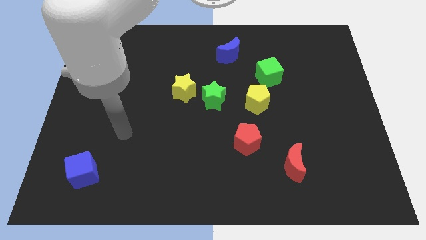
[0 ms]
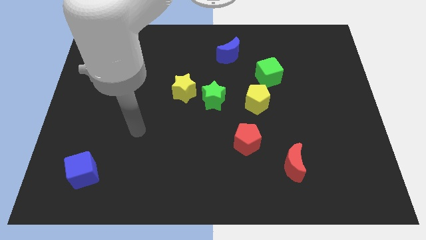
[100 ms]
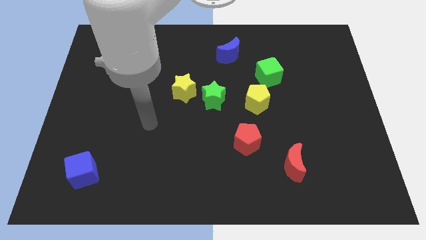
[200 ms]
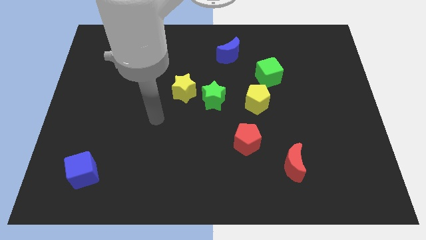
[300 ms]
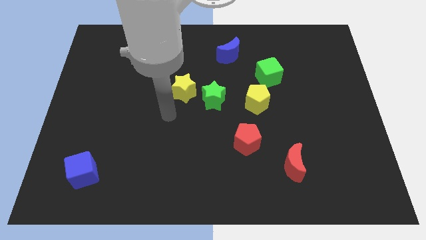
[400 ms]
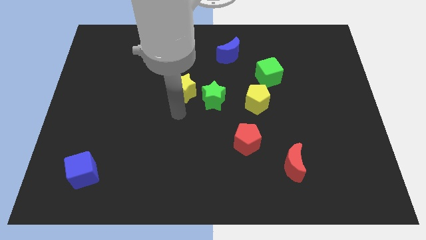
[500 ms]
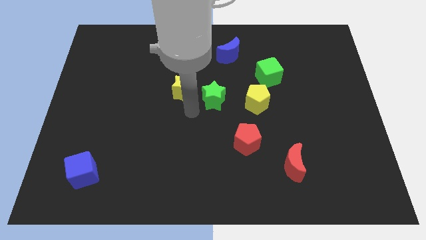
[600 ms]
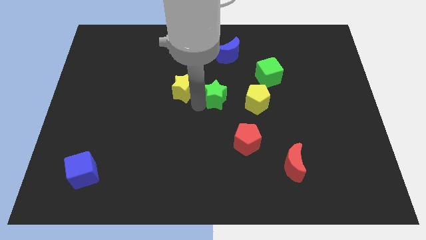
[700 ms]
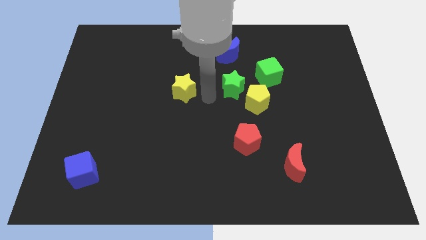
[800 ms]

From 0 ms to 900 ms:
separate the yellow star from the green star

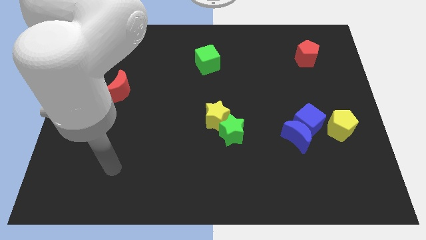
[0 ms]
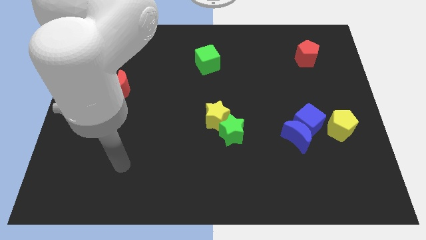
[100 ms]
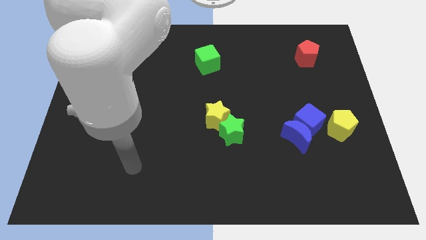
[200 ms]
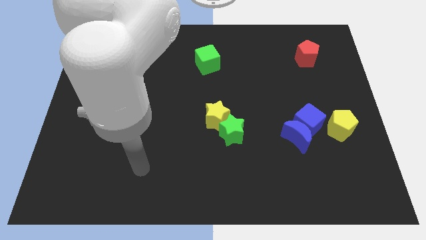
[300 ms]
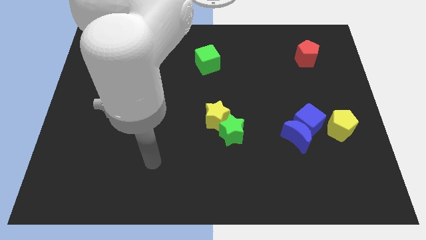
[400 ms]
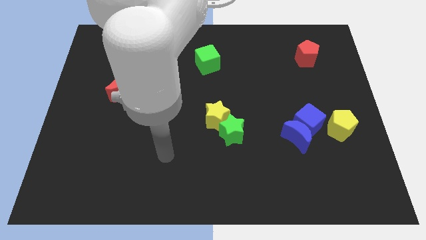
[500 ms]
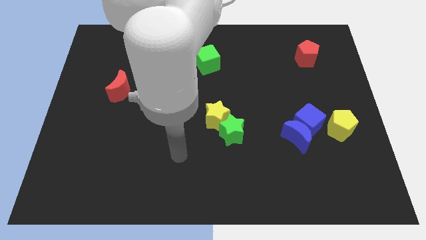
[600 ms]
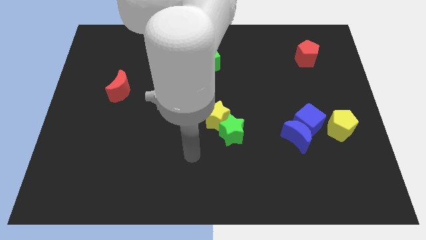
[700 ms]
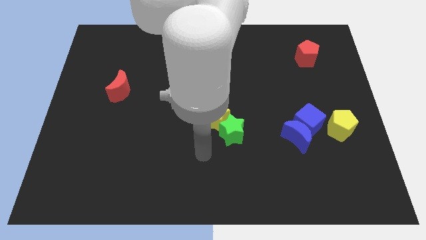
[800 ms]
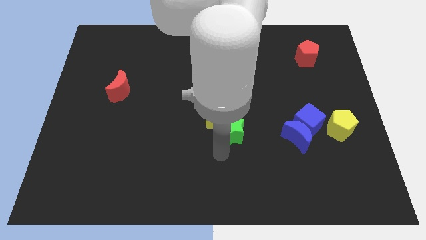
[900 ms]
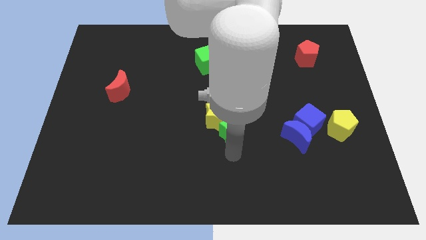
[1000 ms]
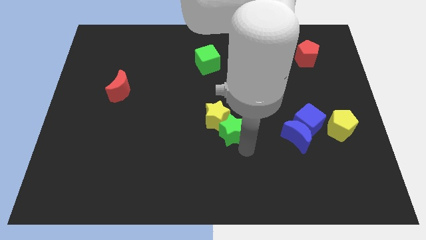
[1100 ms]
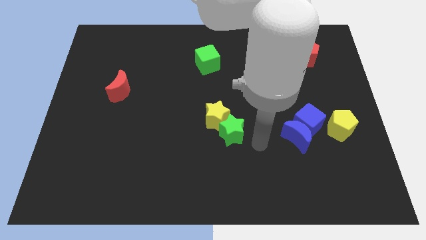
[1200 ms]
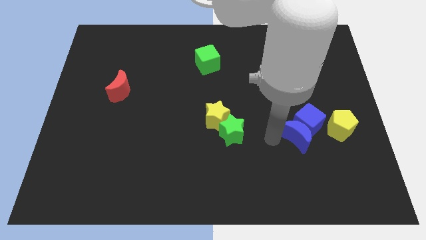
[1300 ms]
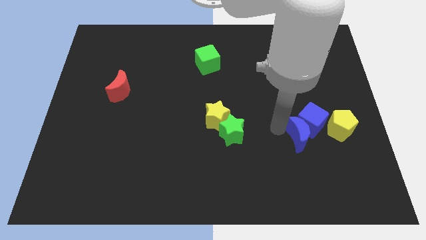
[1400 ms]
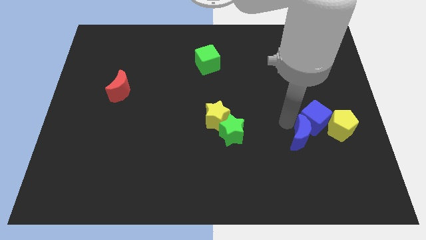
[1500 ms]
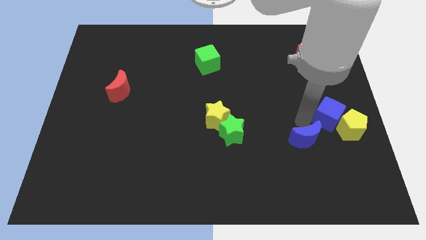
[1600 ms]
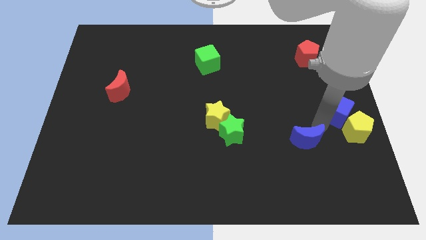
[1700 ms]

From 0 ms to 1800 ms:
separate the blue moon from the blue cube

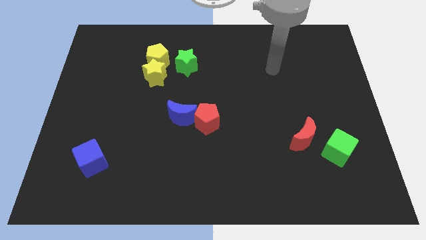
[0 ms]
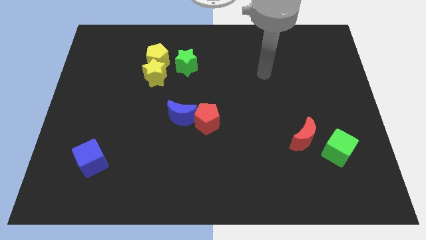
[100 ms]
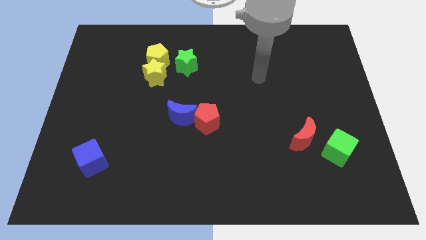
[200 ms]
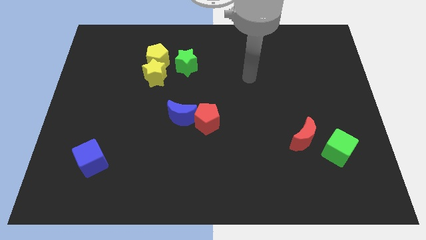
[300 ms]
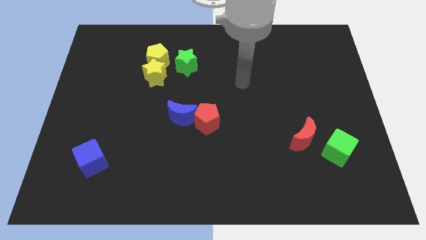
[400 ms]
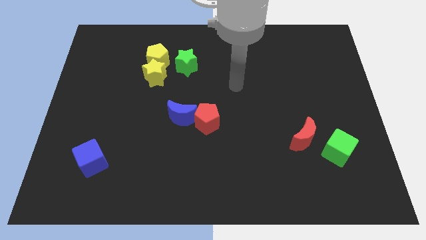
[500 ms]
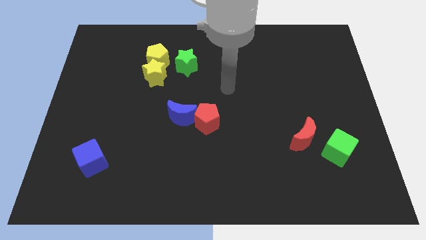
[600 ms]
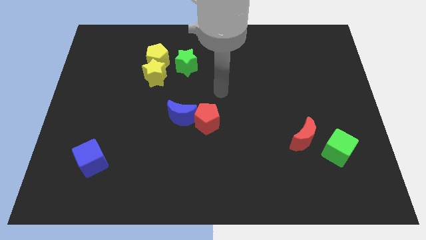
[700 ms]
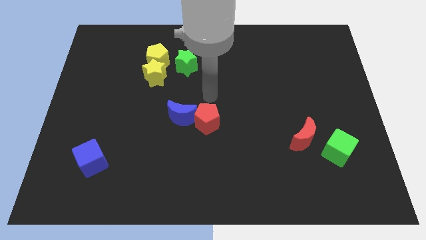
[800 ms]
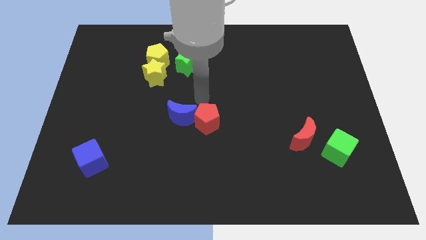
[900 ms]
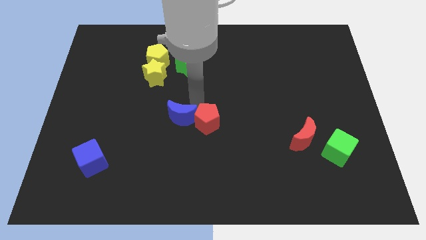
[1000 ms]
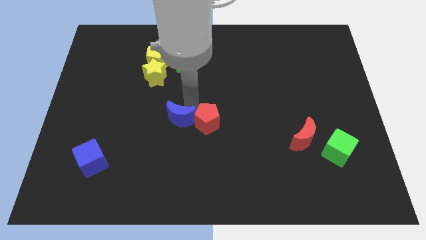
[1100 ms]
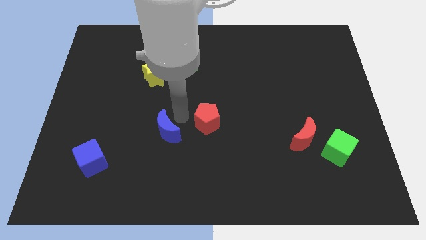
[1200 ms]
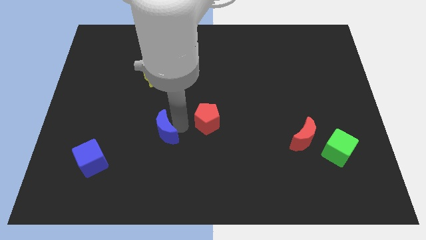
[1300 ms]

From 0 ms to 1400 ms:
pull the red pentagon apart from the blue moon

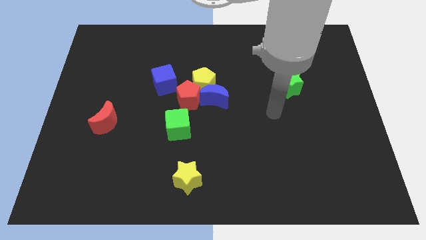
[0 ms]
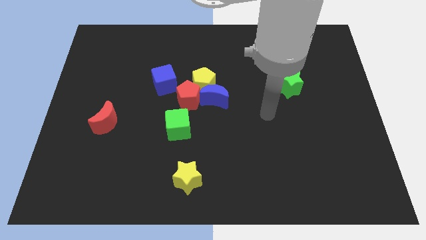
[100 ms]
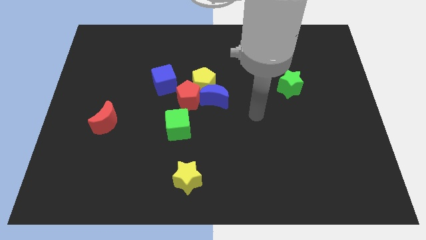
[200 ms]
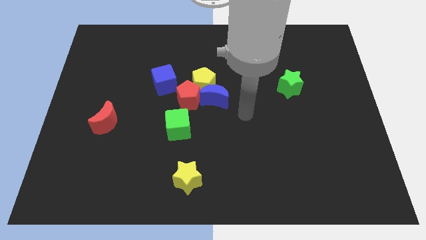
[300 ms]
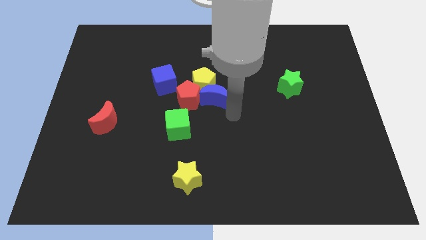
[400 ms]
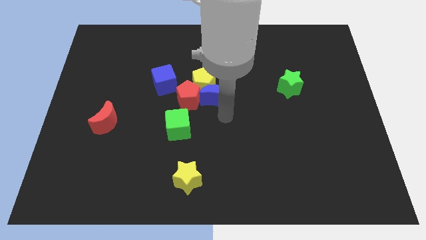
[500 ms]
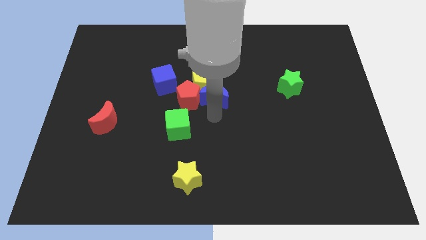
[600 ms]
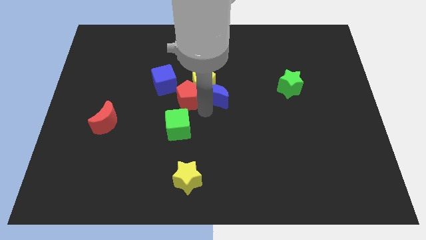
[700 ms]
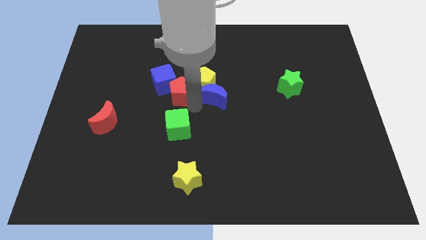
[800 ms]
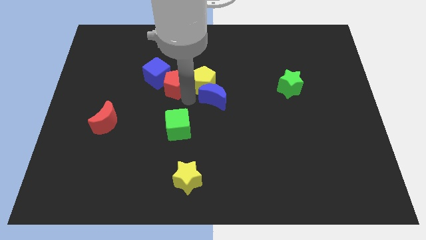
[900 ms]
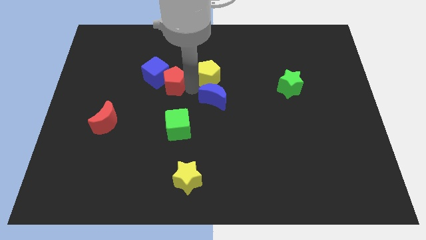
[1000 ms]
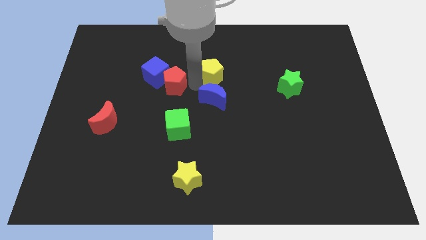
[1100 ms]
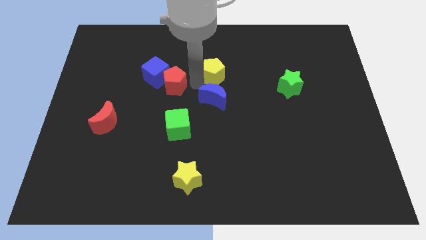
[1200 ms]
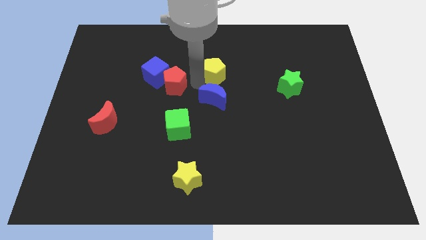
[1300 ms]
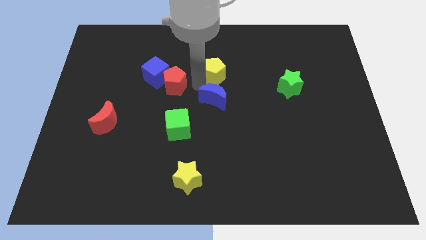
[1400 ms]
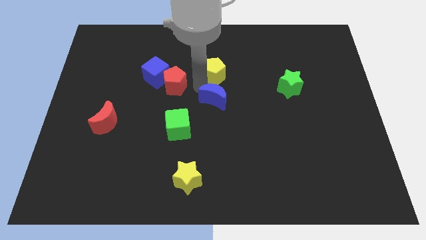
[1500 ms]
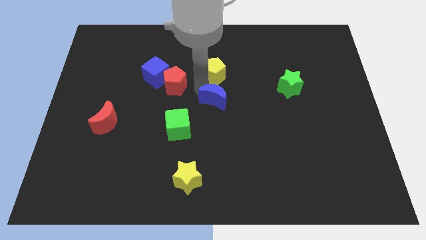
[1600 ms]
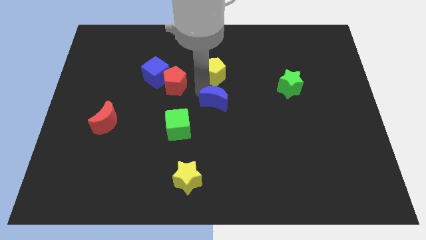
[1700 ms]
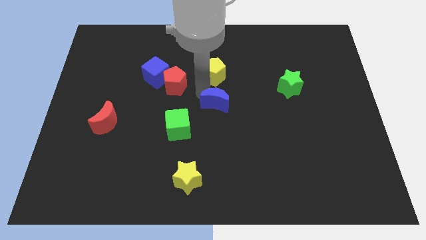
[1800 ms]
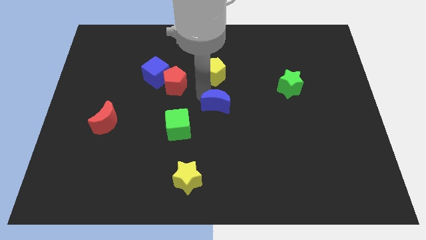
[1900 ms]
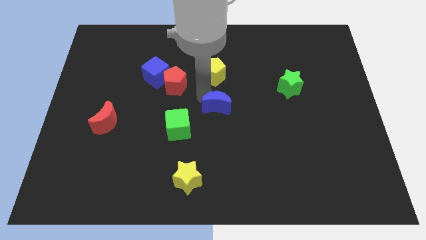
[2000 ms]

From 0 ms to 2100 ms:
move the blue moon away from the yellow pentagon and red pentagon

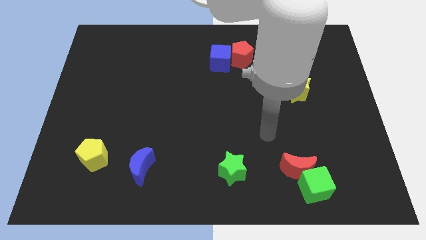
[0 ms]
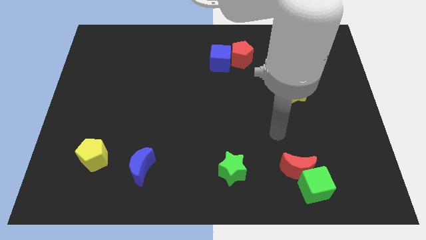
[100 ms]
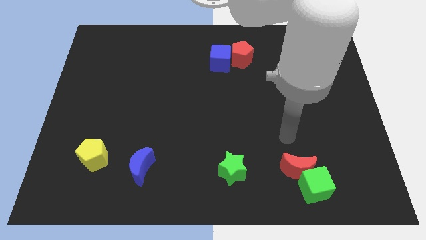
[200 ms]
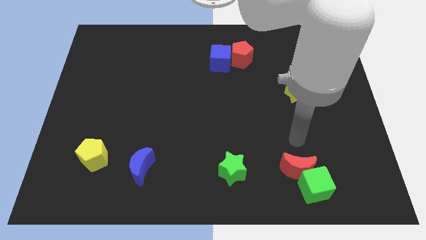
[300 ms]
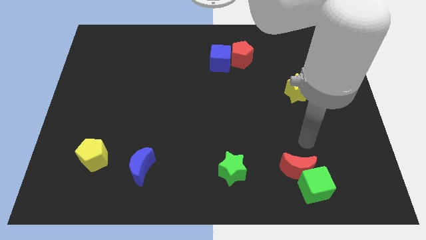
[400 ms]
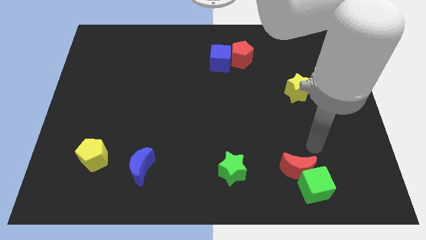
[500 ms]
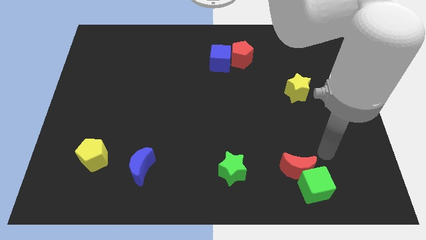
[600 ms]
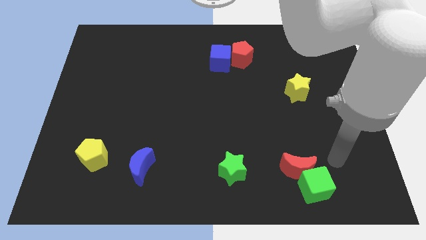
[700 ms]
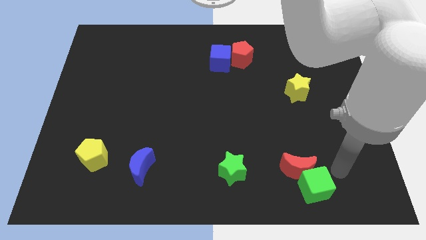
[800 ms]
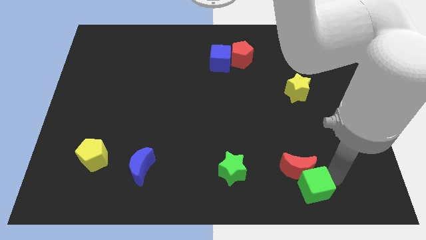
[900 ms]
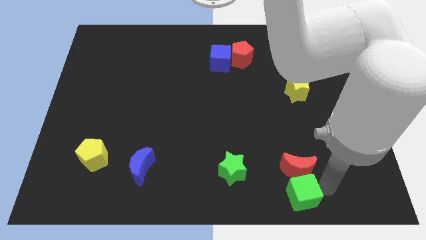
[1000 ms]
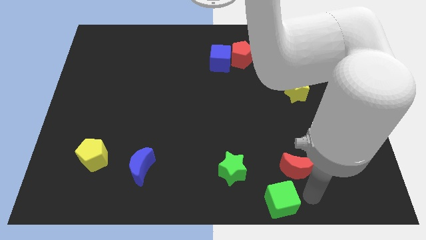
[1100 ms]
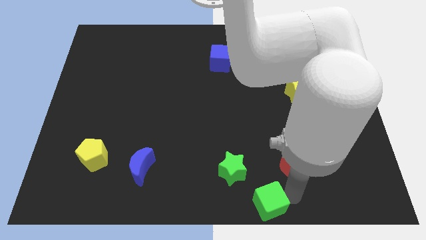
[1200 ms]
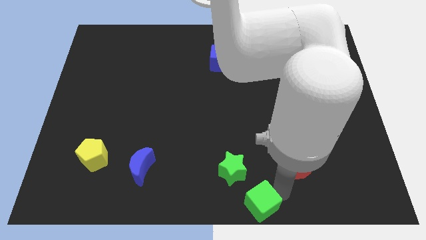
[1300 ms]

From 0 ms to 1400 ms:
move the red moon away from the green cube

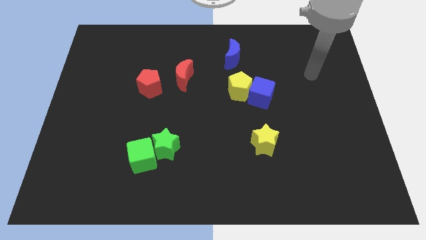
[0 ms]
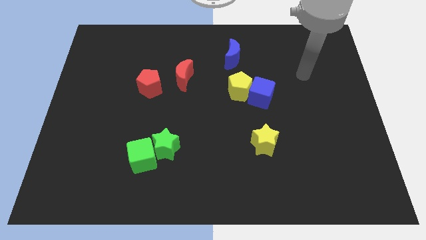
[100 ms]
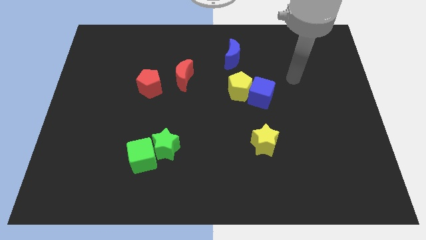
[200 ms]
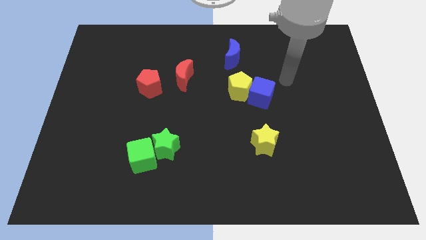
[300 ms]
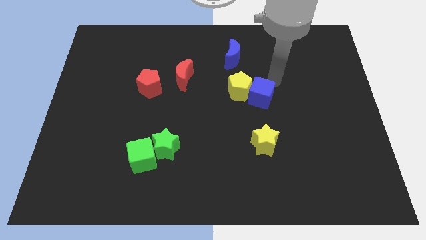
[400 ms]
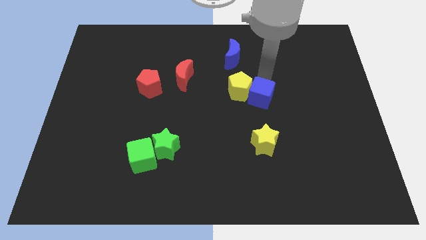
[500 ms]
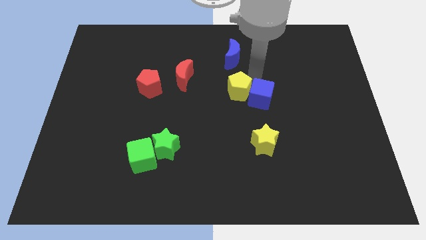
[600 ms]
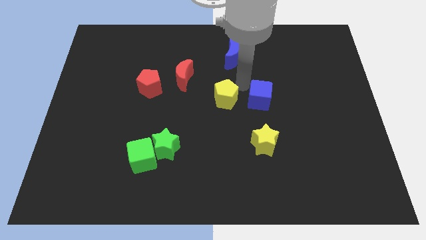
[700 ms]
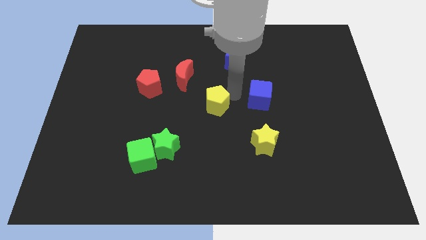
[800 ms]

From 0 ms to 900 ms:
pull the blue cube apart from the yellow pentagon

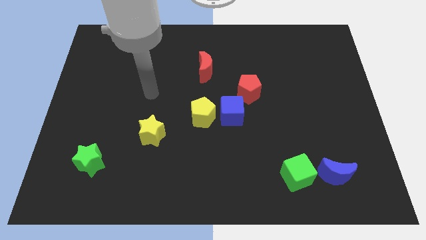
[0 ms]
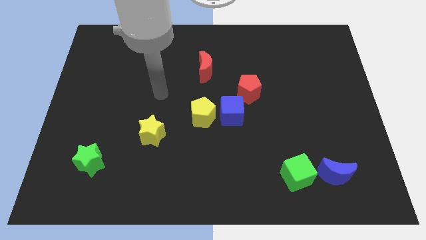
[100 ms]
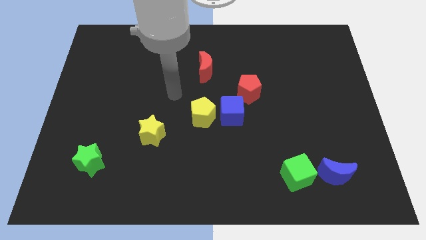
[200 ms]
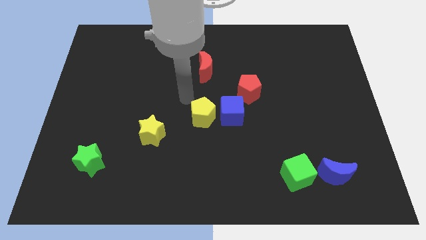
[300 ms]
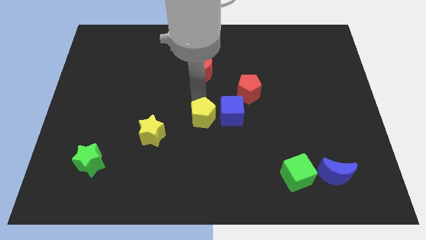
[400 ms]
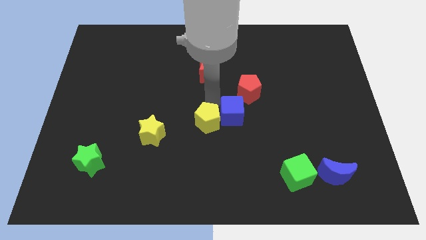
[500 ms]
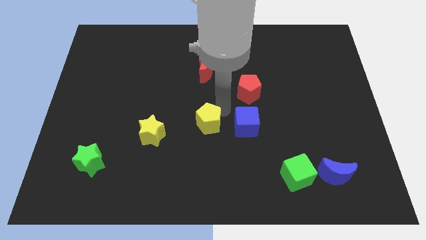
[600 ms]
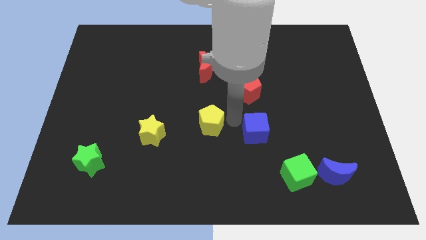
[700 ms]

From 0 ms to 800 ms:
move the yellow pentagon away from the blue cube
